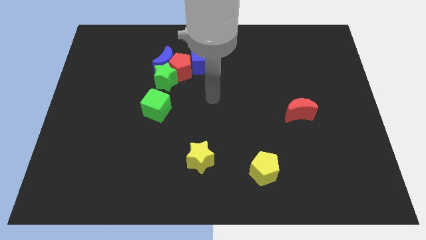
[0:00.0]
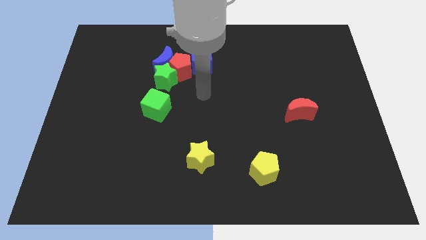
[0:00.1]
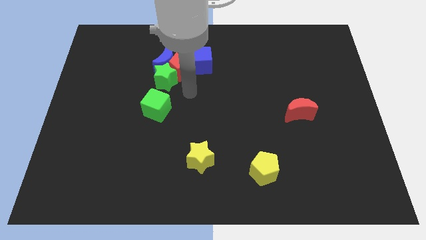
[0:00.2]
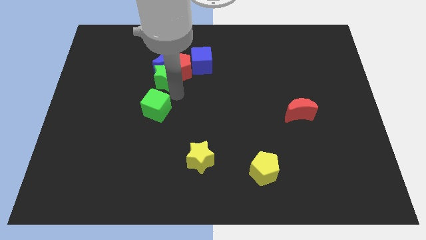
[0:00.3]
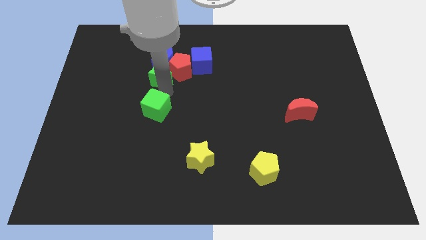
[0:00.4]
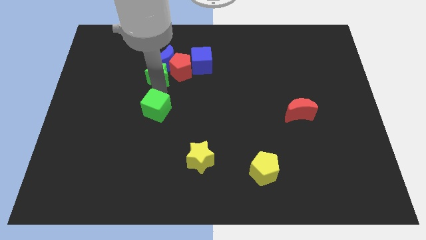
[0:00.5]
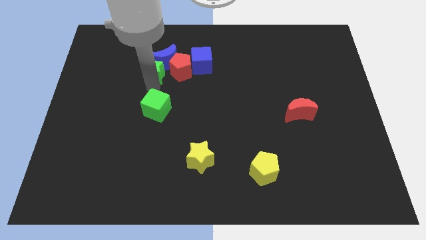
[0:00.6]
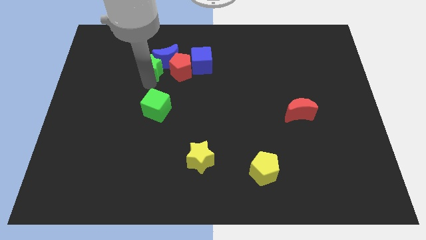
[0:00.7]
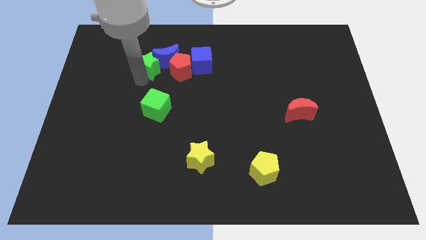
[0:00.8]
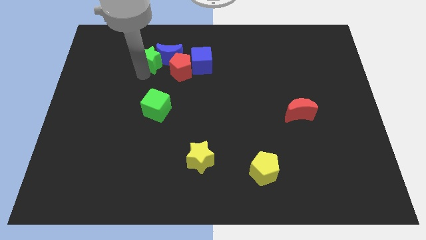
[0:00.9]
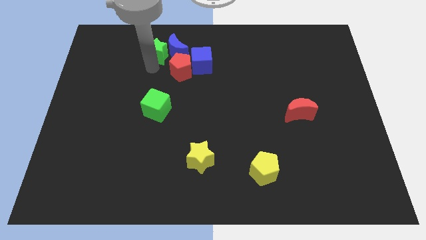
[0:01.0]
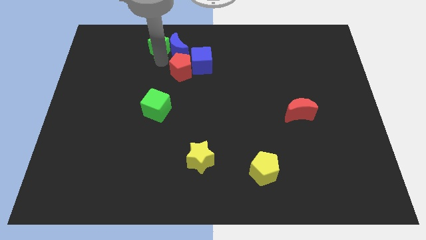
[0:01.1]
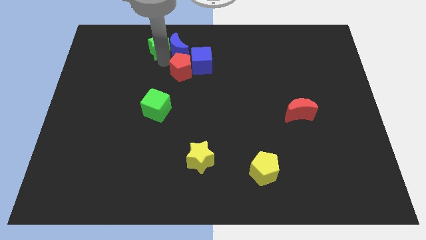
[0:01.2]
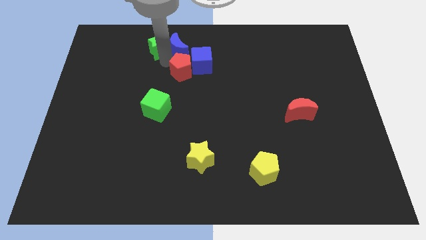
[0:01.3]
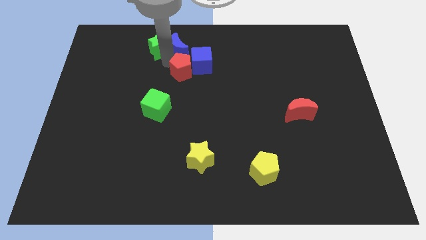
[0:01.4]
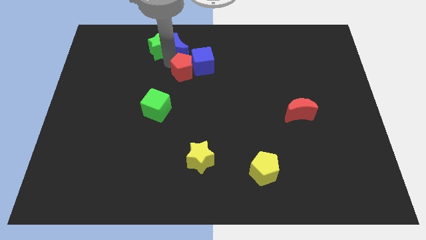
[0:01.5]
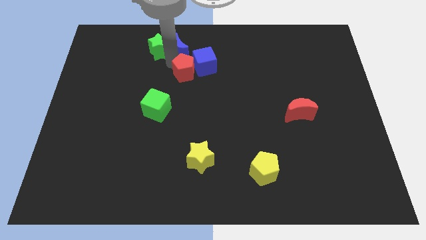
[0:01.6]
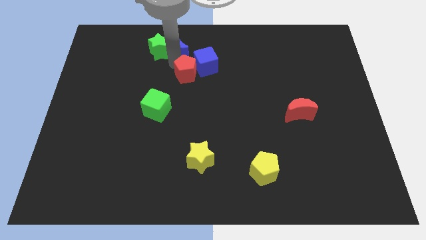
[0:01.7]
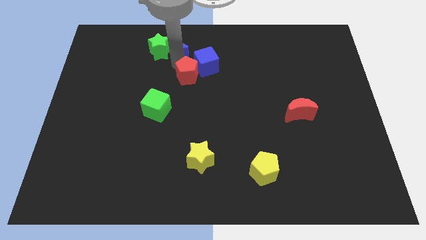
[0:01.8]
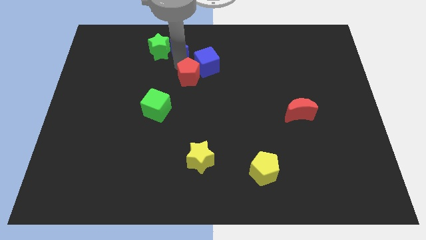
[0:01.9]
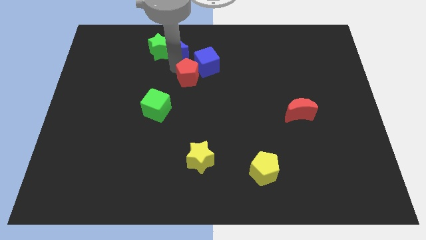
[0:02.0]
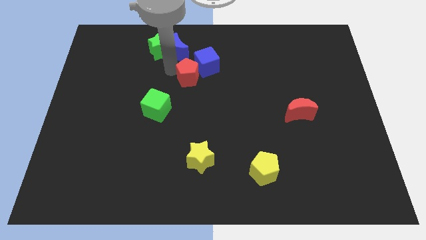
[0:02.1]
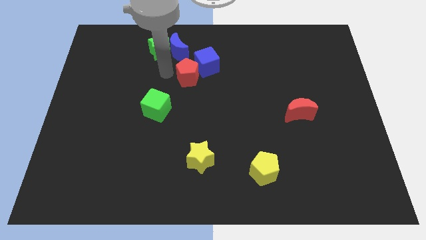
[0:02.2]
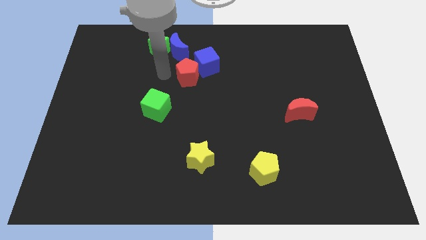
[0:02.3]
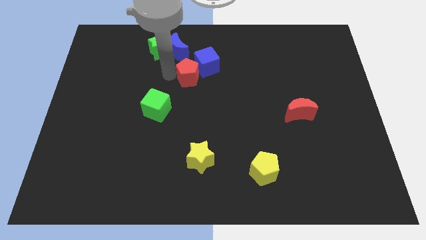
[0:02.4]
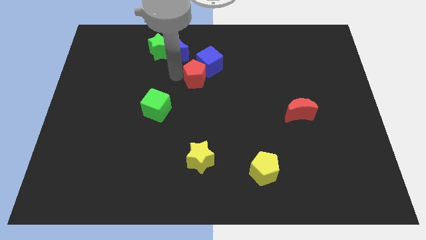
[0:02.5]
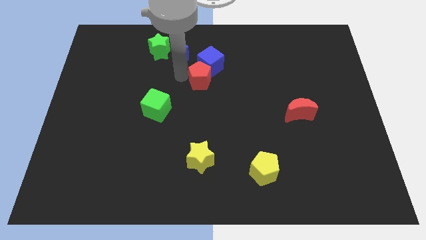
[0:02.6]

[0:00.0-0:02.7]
pull the red pentagon apart from the group

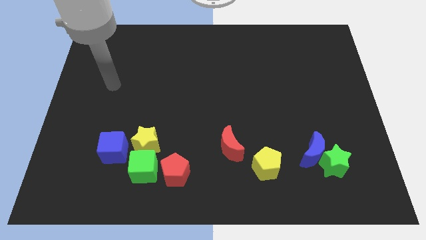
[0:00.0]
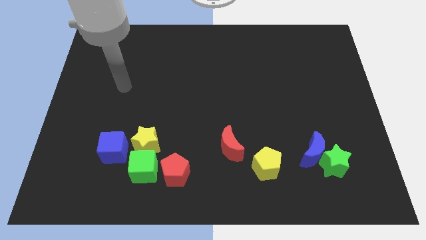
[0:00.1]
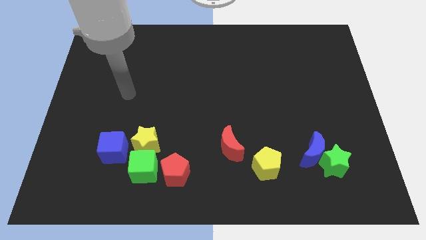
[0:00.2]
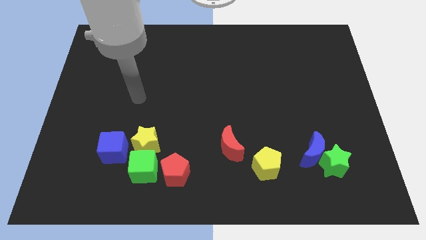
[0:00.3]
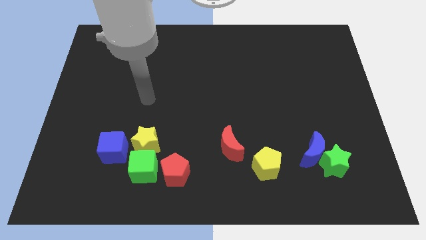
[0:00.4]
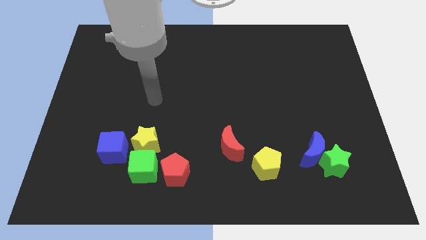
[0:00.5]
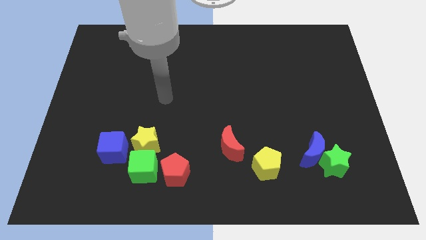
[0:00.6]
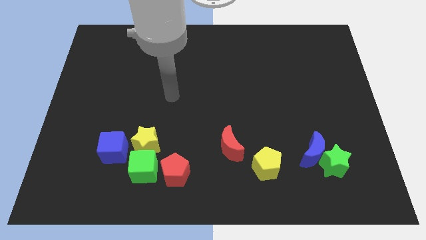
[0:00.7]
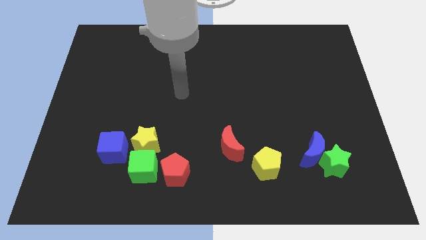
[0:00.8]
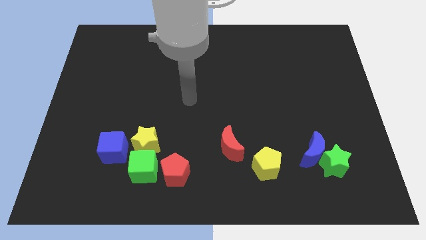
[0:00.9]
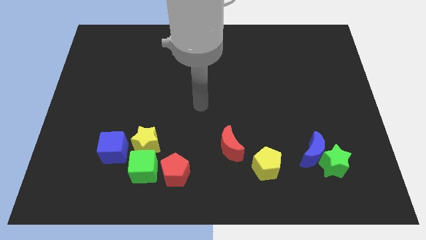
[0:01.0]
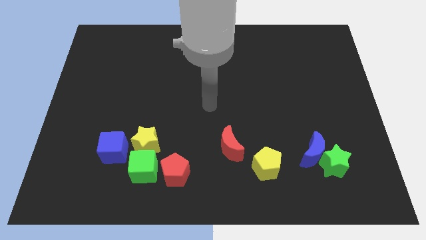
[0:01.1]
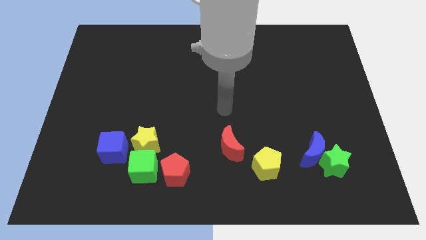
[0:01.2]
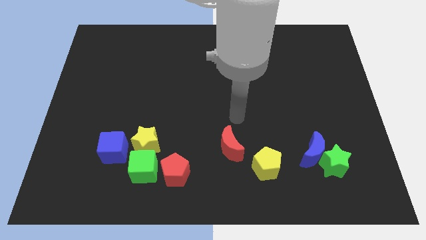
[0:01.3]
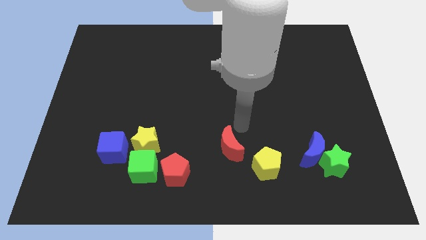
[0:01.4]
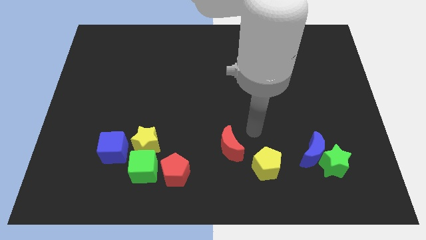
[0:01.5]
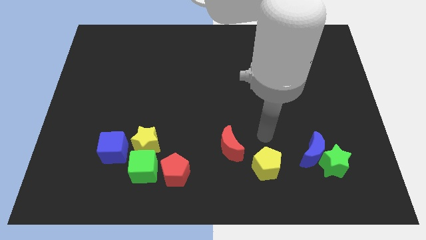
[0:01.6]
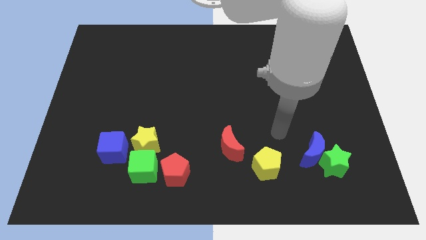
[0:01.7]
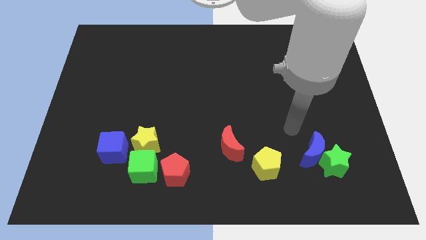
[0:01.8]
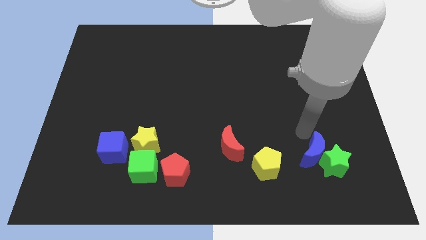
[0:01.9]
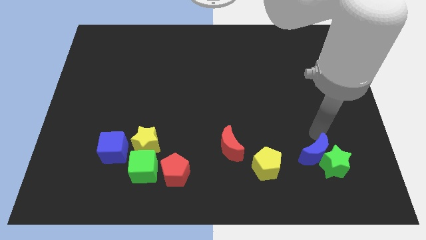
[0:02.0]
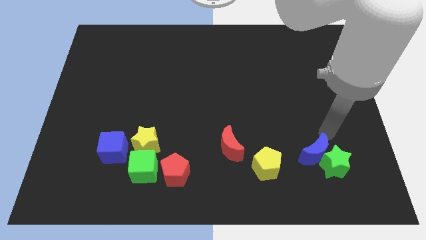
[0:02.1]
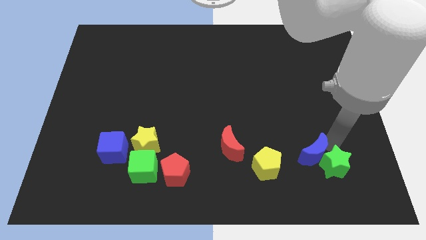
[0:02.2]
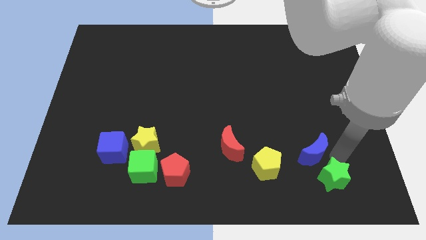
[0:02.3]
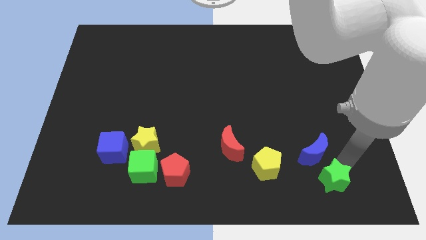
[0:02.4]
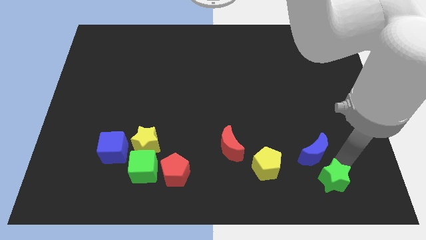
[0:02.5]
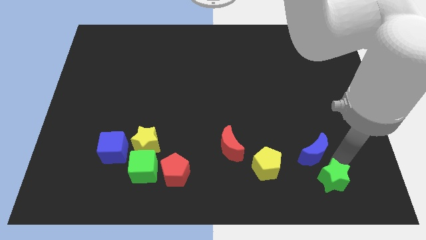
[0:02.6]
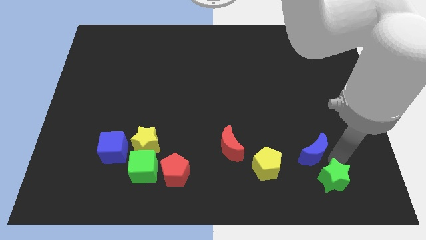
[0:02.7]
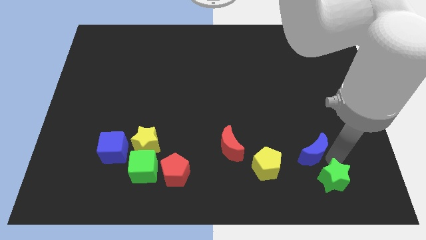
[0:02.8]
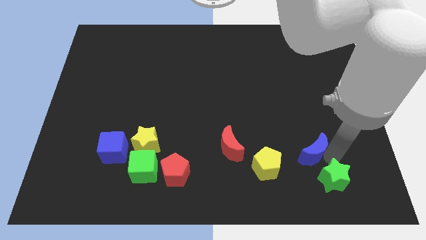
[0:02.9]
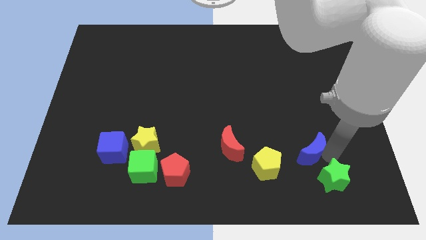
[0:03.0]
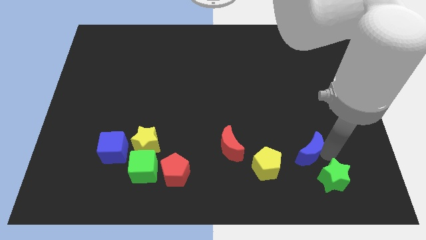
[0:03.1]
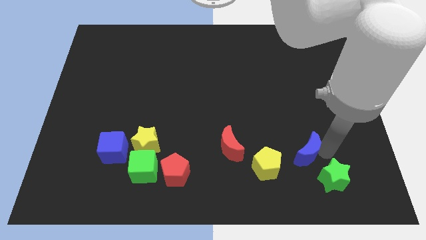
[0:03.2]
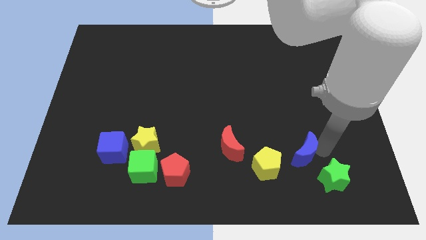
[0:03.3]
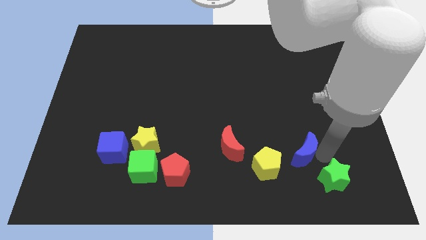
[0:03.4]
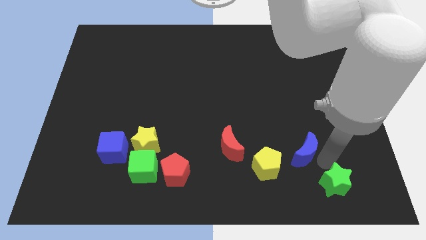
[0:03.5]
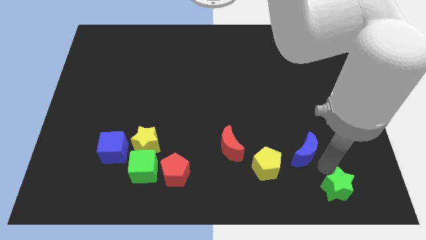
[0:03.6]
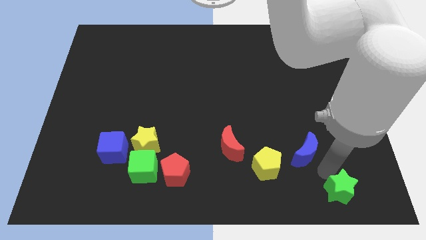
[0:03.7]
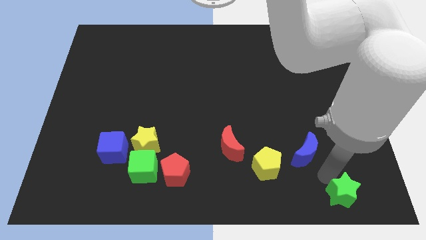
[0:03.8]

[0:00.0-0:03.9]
move the blue moon away from the green star

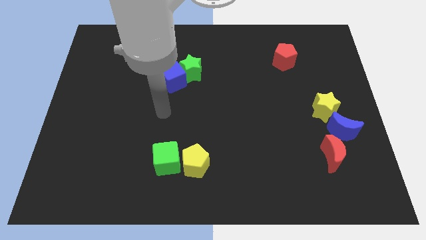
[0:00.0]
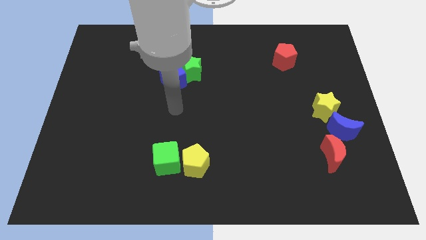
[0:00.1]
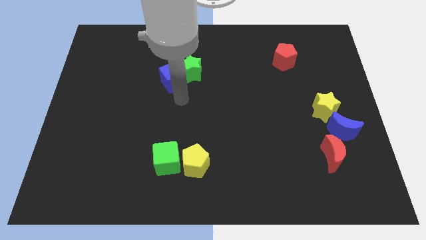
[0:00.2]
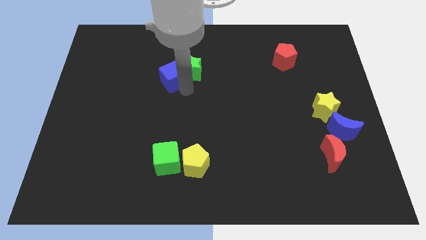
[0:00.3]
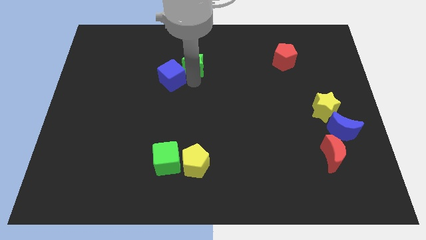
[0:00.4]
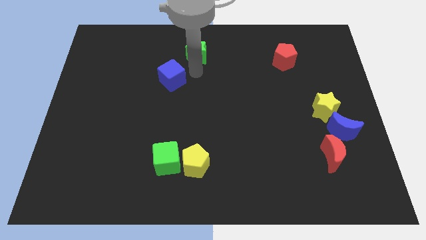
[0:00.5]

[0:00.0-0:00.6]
pull the blue cube apart from the green star

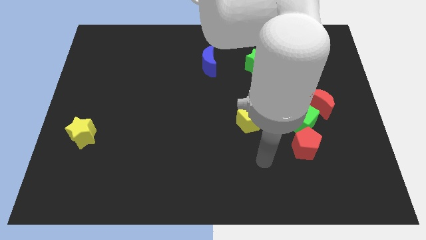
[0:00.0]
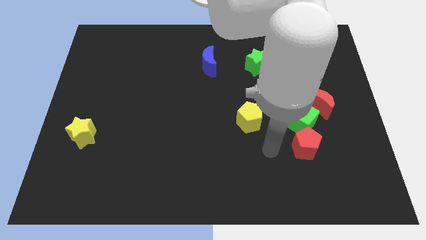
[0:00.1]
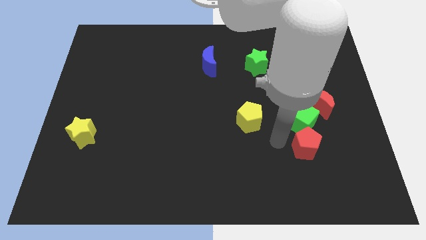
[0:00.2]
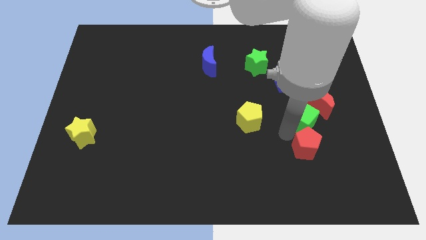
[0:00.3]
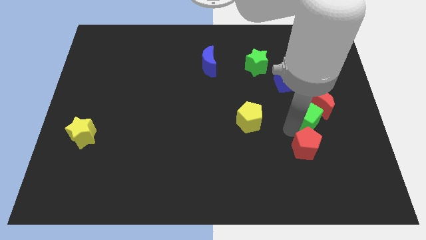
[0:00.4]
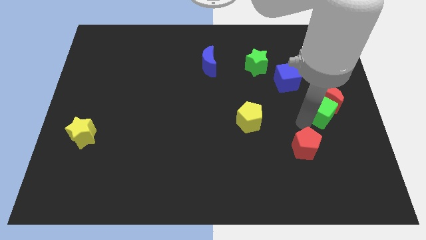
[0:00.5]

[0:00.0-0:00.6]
pull the red pentagon apart from the green cube

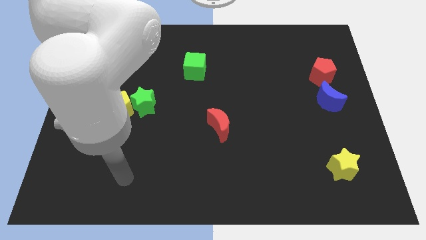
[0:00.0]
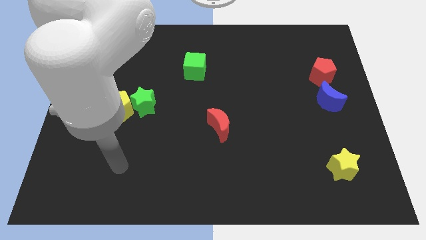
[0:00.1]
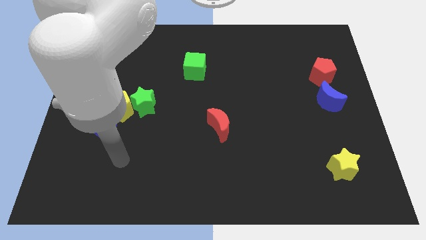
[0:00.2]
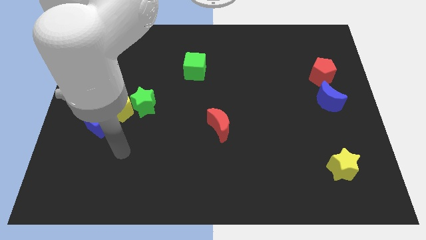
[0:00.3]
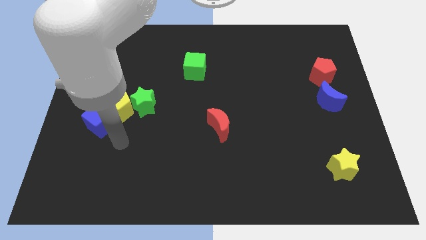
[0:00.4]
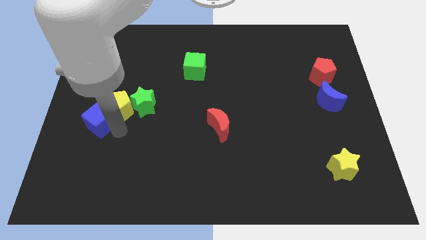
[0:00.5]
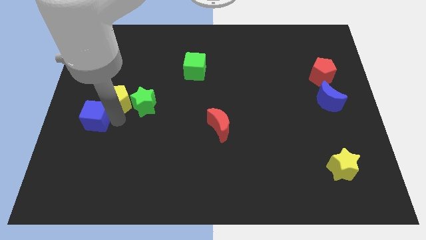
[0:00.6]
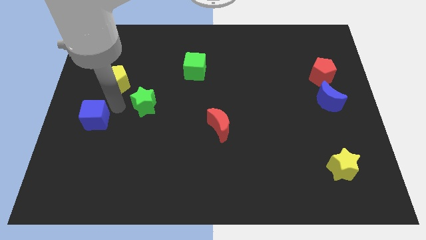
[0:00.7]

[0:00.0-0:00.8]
move the green star away from the yellow pentagon

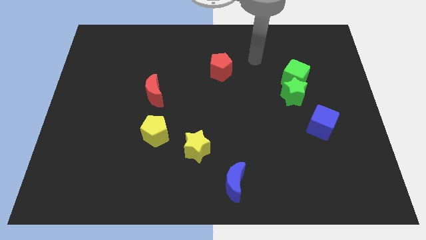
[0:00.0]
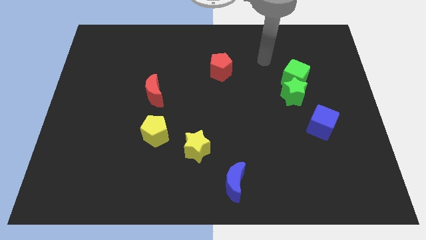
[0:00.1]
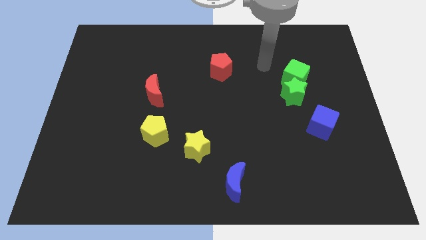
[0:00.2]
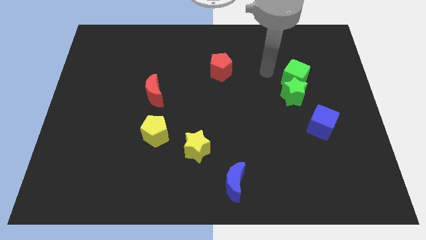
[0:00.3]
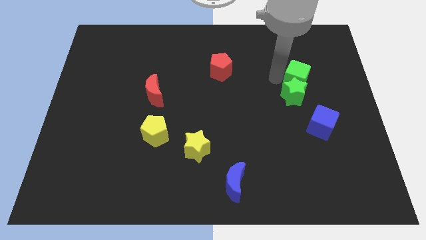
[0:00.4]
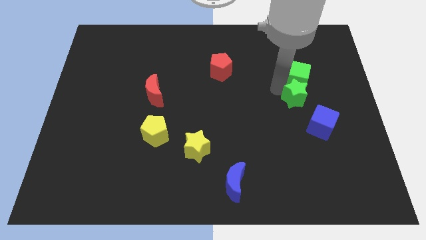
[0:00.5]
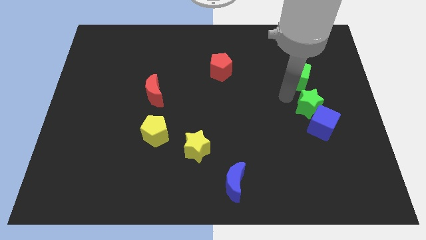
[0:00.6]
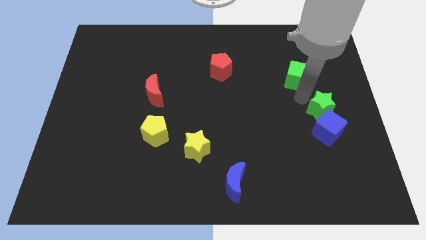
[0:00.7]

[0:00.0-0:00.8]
pull the green cube apart from the green star

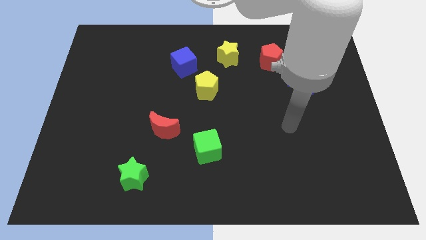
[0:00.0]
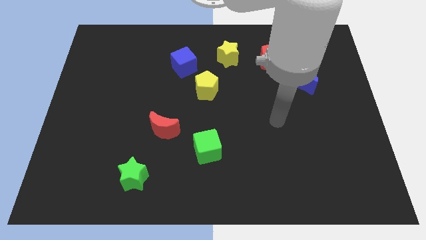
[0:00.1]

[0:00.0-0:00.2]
pull the blue cube apart from the yellow pentagon
